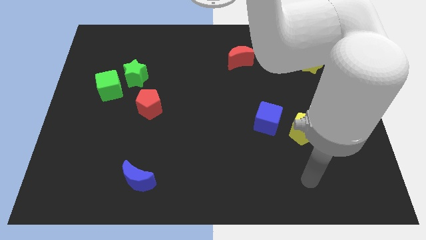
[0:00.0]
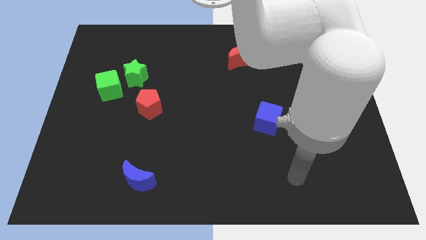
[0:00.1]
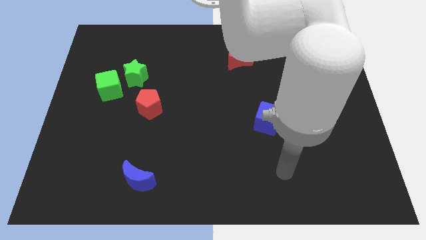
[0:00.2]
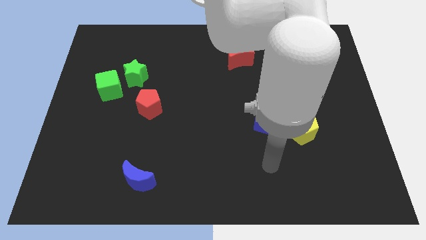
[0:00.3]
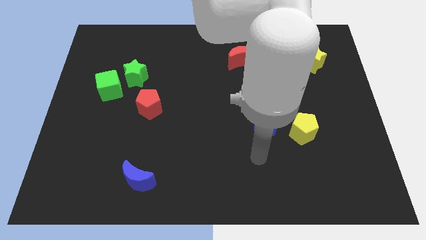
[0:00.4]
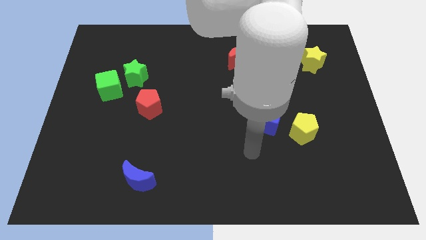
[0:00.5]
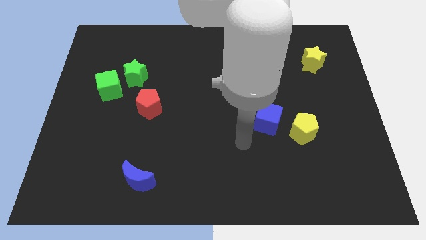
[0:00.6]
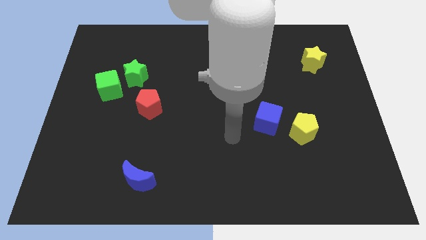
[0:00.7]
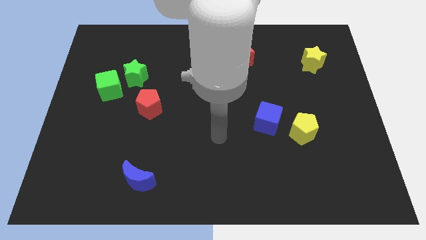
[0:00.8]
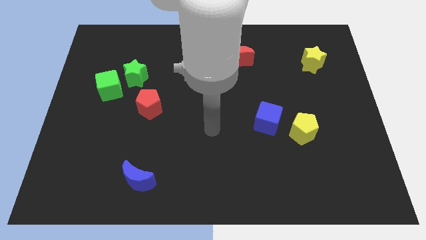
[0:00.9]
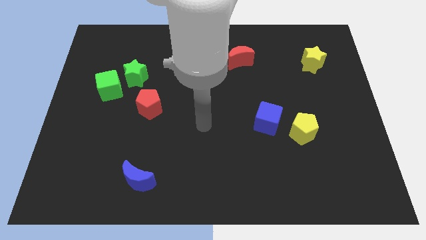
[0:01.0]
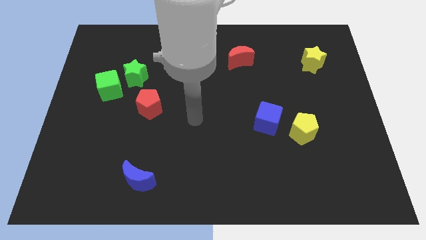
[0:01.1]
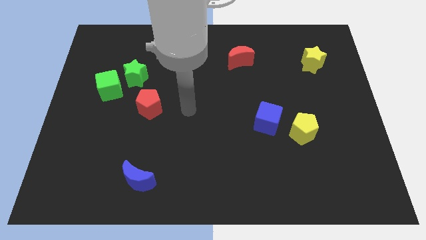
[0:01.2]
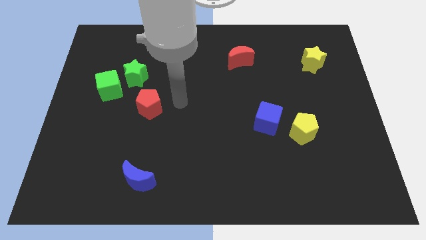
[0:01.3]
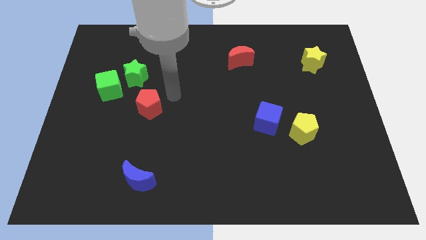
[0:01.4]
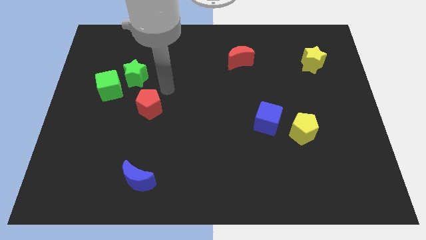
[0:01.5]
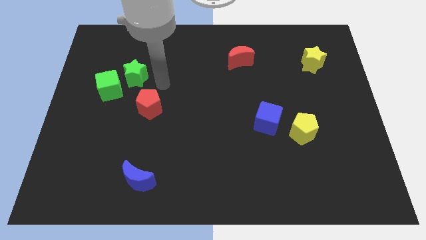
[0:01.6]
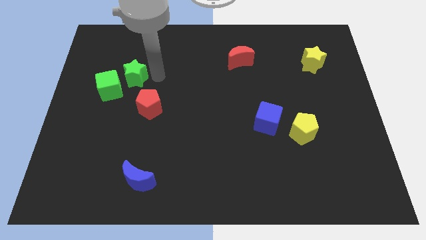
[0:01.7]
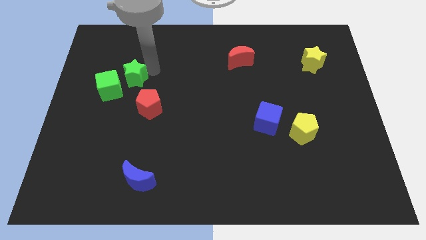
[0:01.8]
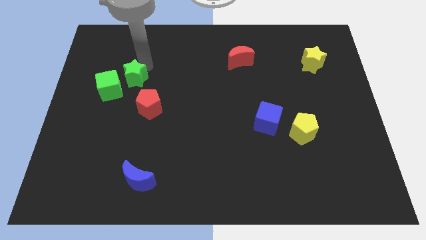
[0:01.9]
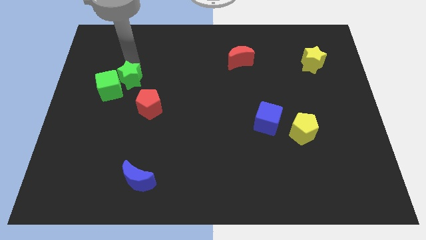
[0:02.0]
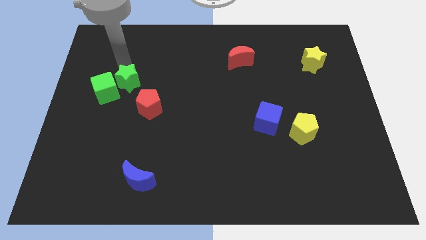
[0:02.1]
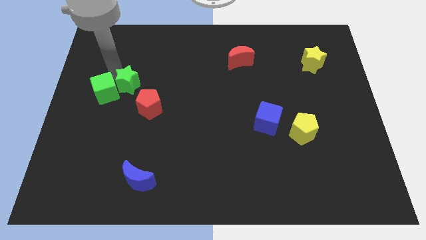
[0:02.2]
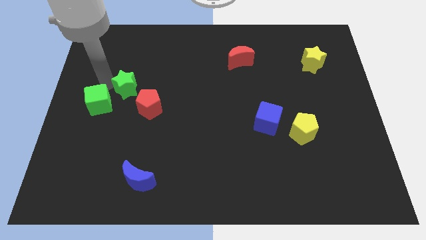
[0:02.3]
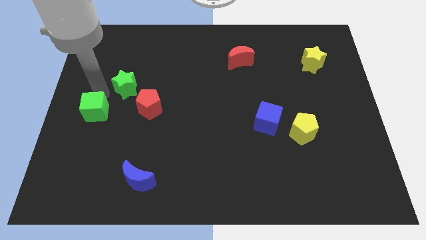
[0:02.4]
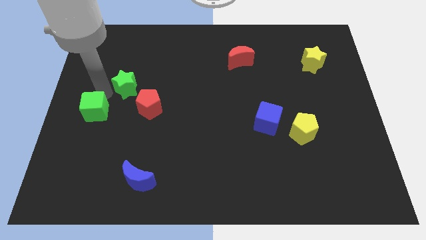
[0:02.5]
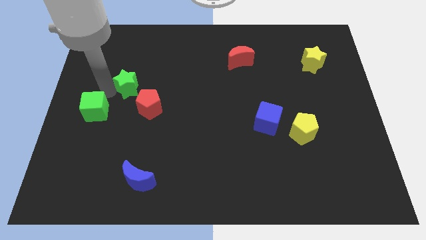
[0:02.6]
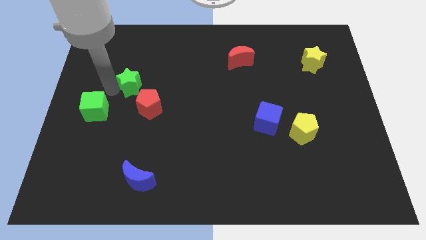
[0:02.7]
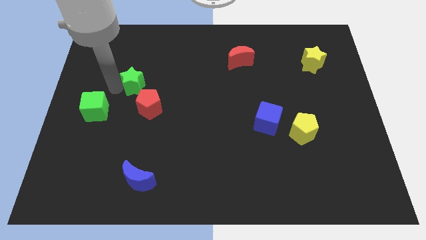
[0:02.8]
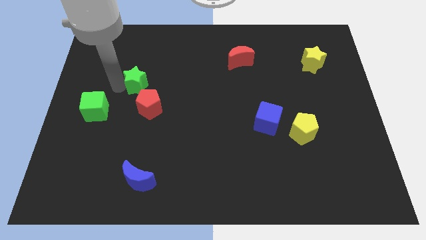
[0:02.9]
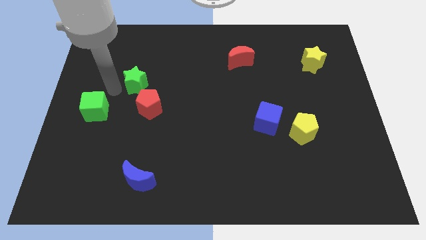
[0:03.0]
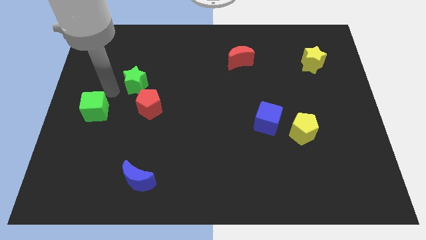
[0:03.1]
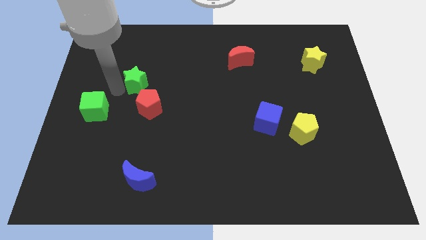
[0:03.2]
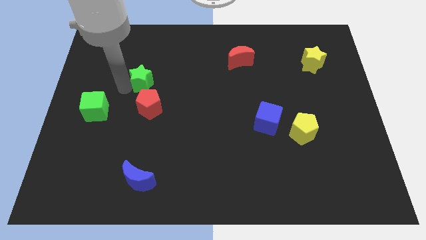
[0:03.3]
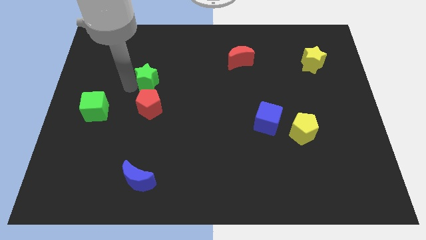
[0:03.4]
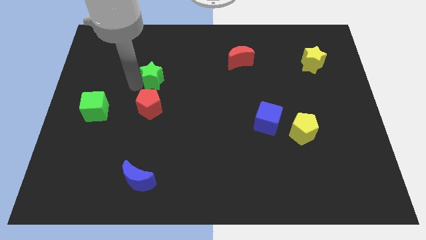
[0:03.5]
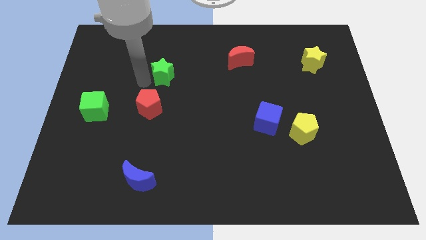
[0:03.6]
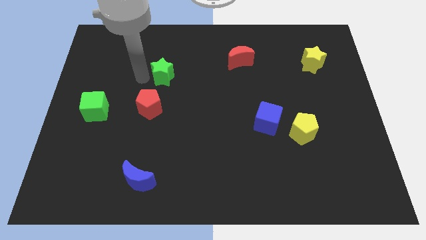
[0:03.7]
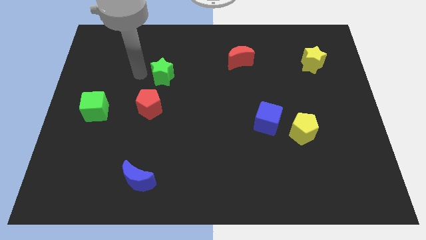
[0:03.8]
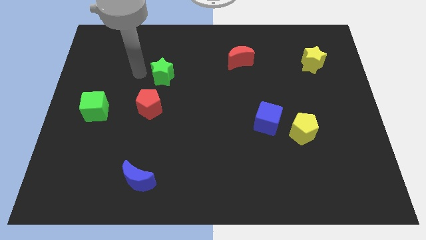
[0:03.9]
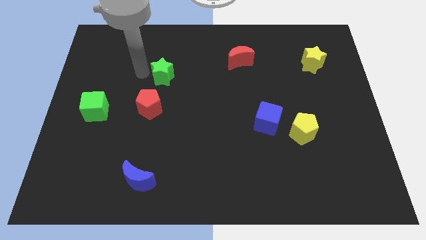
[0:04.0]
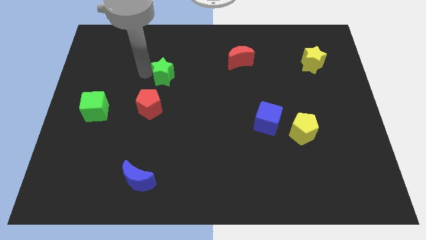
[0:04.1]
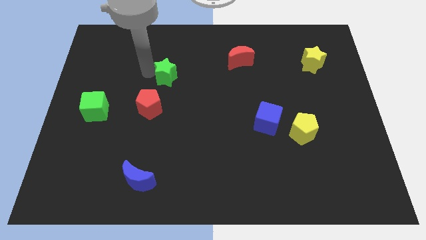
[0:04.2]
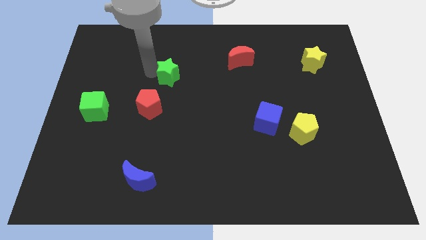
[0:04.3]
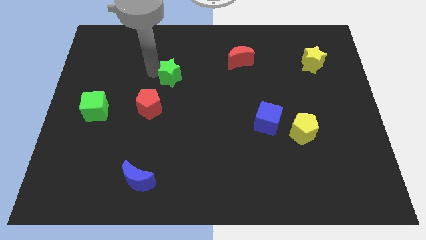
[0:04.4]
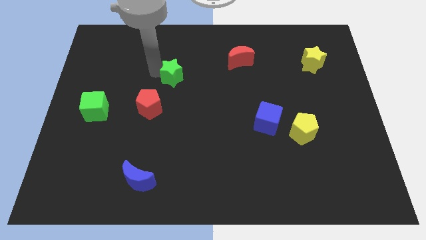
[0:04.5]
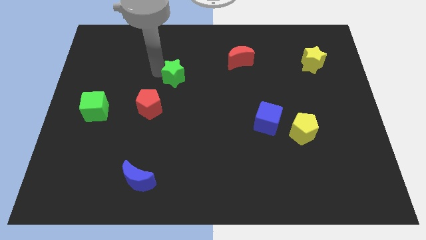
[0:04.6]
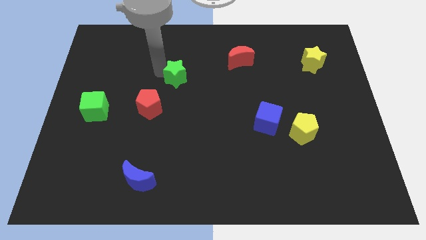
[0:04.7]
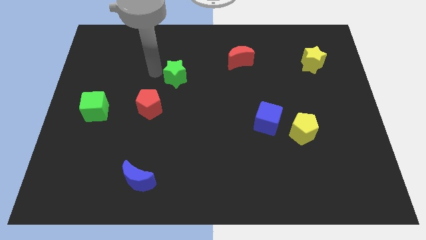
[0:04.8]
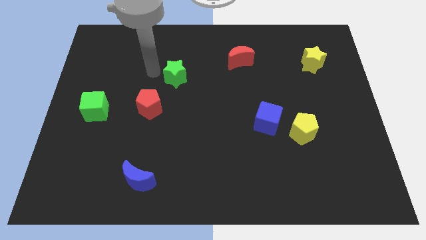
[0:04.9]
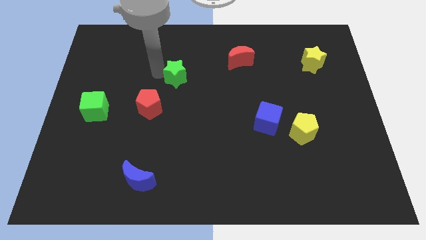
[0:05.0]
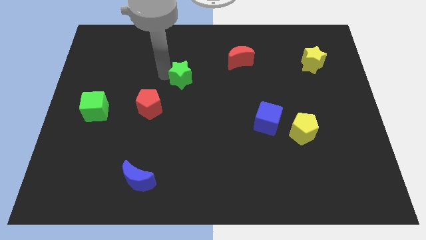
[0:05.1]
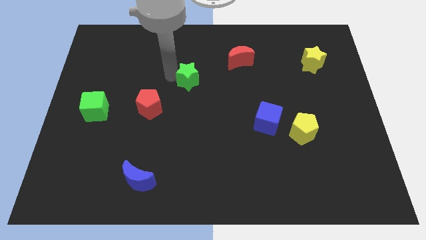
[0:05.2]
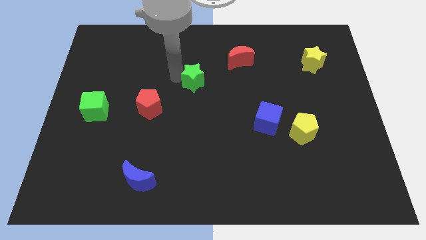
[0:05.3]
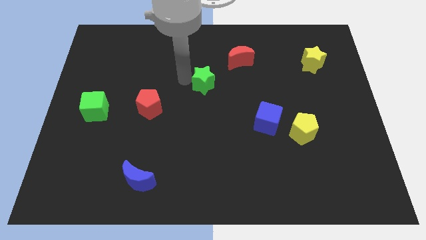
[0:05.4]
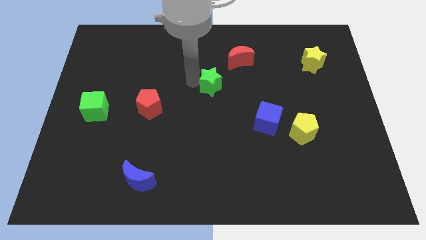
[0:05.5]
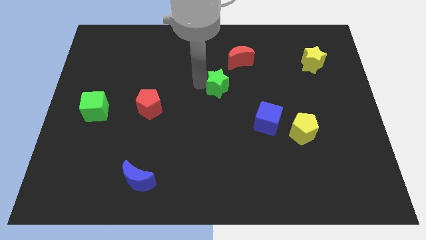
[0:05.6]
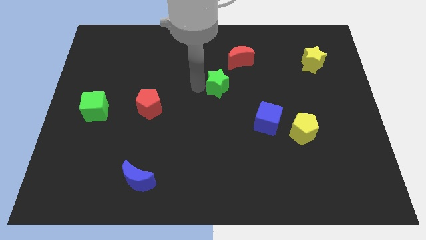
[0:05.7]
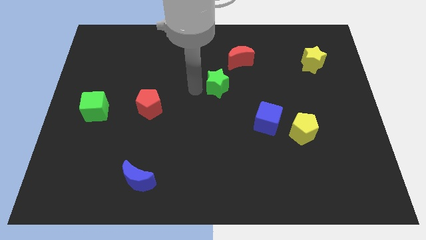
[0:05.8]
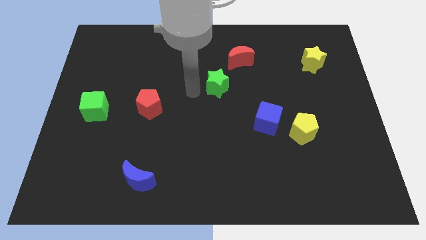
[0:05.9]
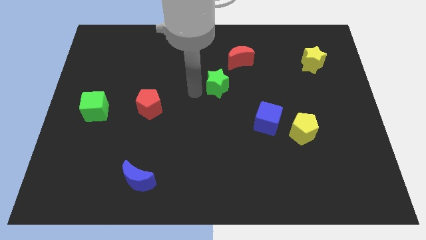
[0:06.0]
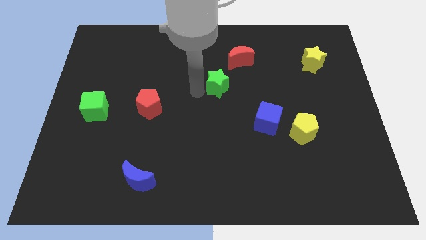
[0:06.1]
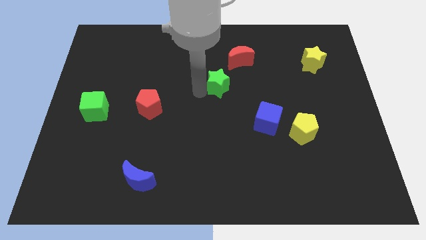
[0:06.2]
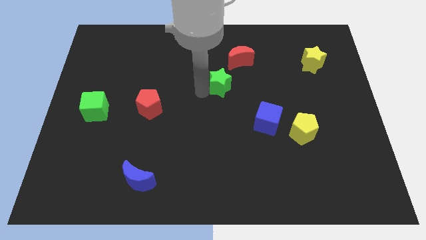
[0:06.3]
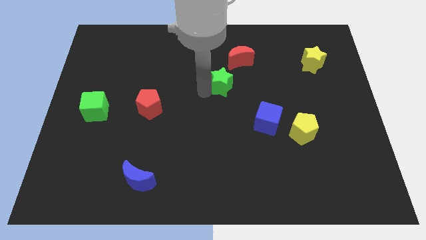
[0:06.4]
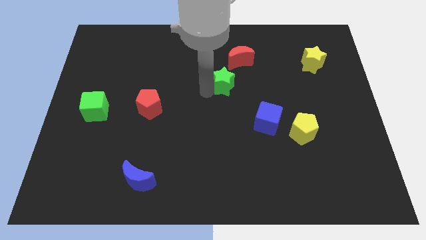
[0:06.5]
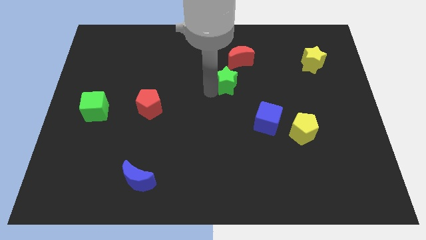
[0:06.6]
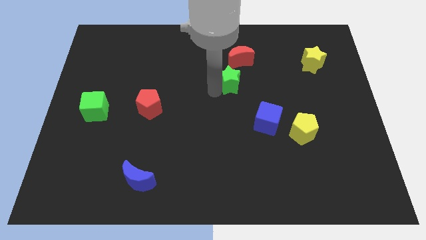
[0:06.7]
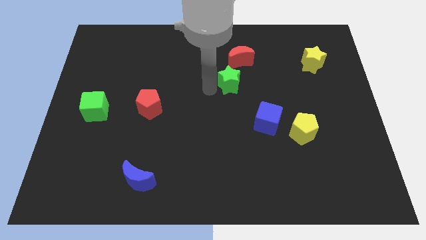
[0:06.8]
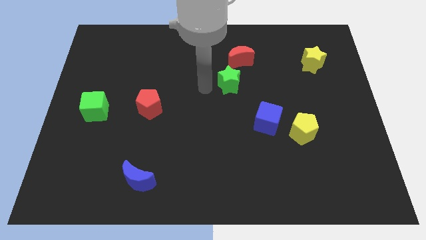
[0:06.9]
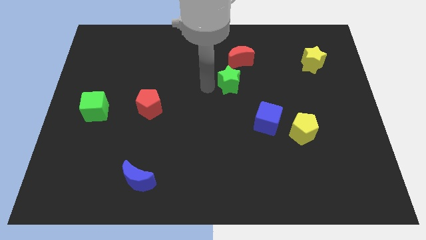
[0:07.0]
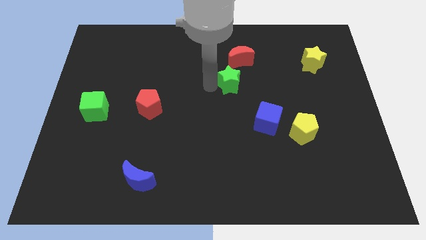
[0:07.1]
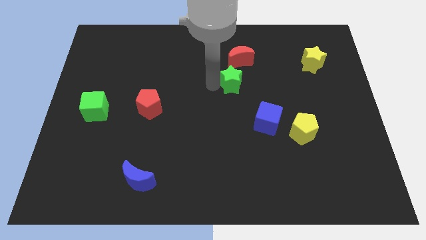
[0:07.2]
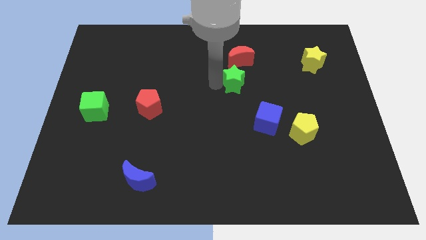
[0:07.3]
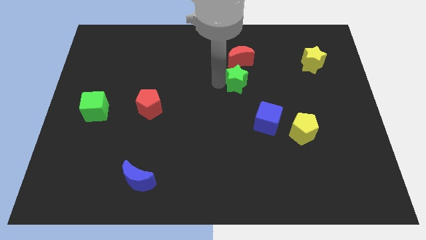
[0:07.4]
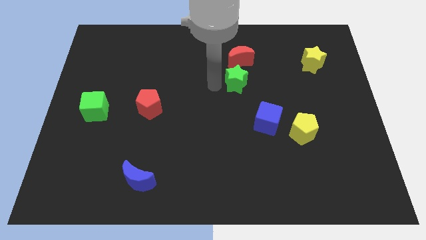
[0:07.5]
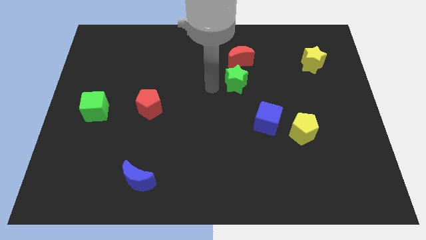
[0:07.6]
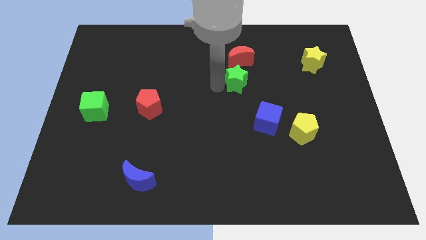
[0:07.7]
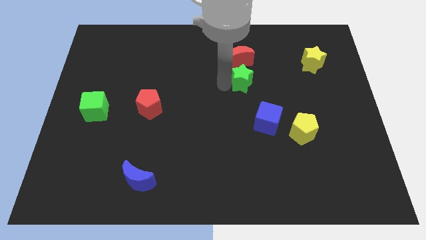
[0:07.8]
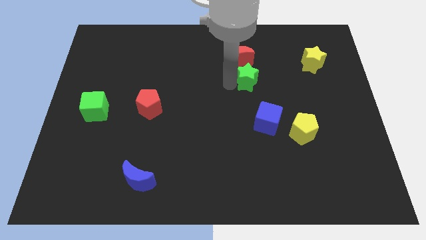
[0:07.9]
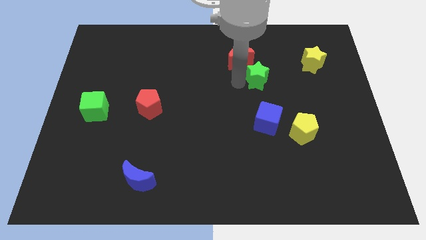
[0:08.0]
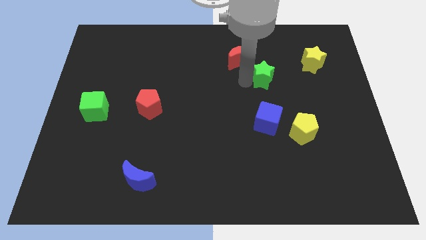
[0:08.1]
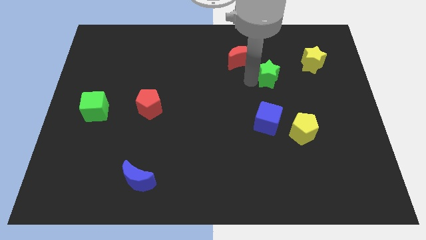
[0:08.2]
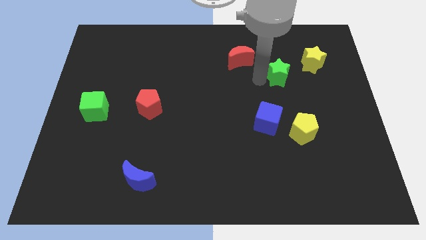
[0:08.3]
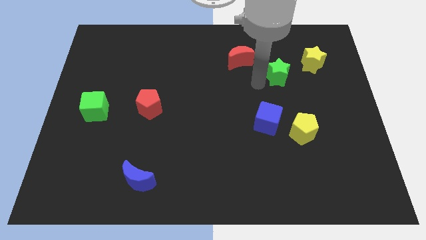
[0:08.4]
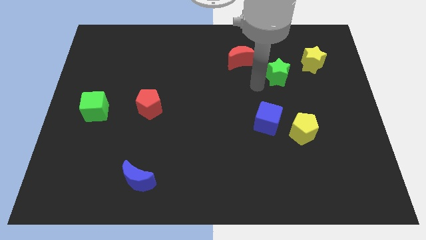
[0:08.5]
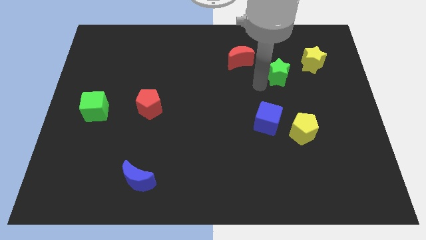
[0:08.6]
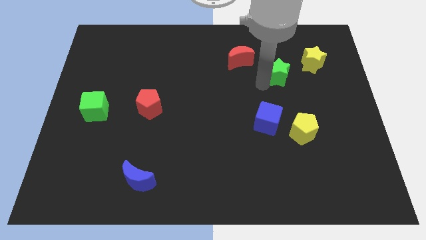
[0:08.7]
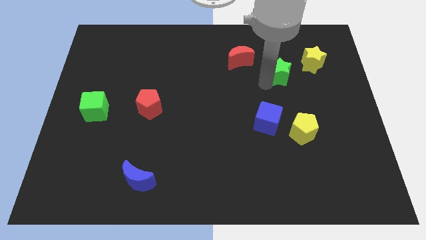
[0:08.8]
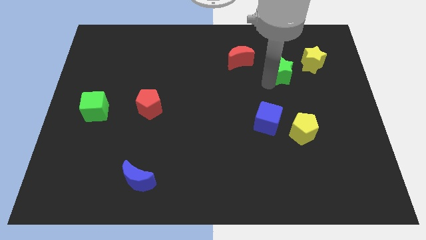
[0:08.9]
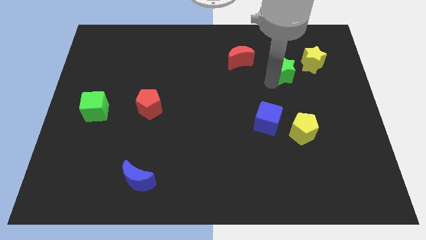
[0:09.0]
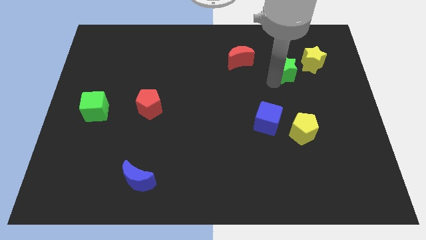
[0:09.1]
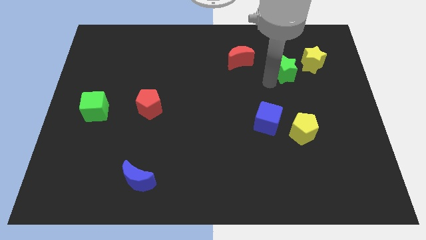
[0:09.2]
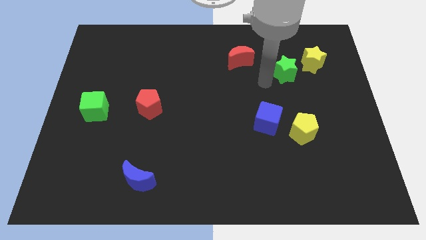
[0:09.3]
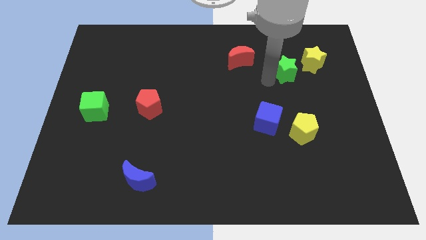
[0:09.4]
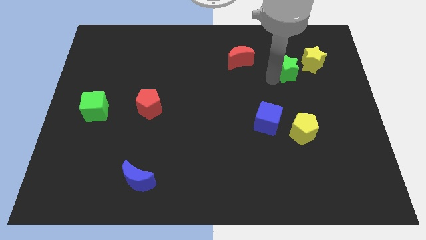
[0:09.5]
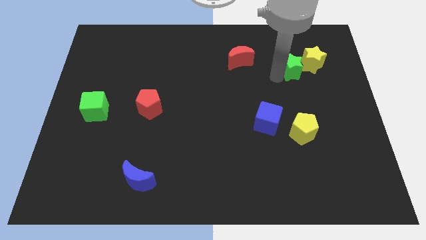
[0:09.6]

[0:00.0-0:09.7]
push the green star towards the yellow star
